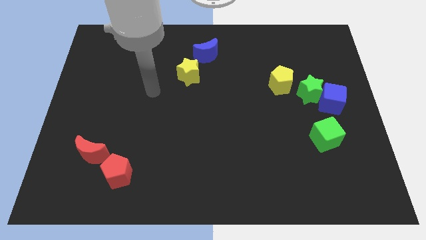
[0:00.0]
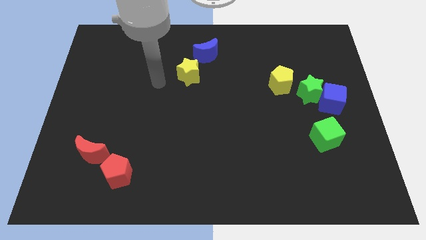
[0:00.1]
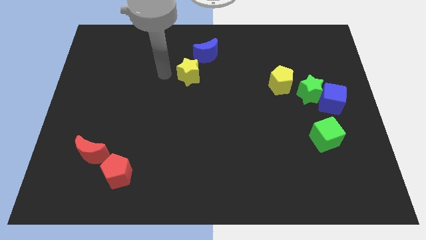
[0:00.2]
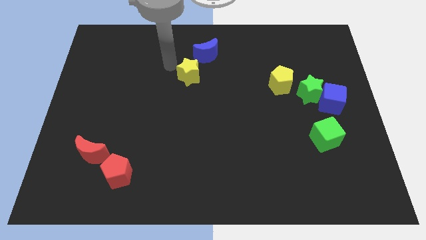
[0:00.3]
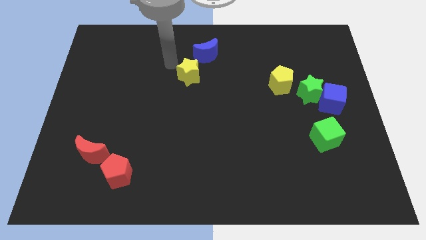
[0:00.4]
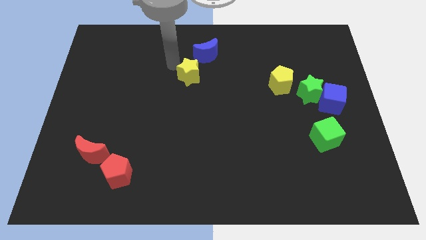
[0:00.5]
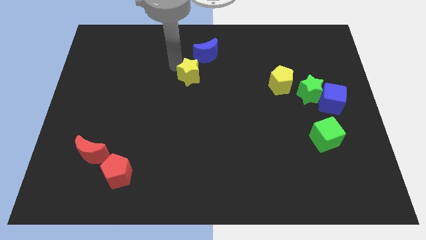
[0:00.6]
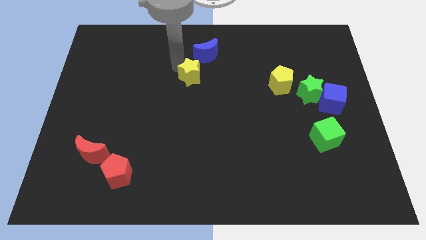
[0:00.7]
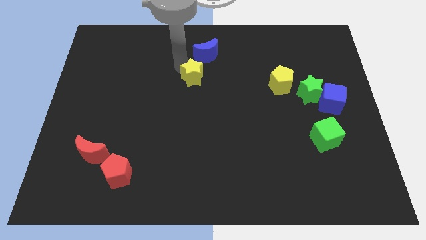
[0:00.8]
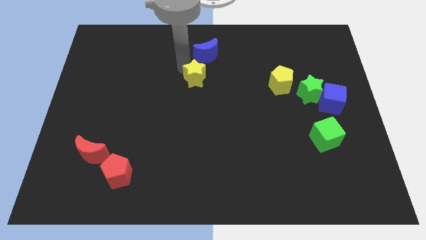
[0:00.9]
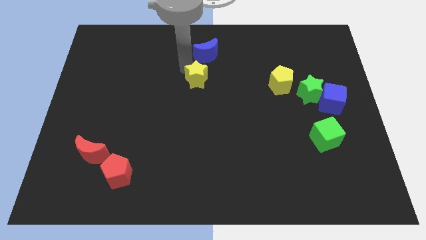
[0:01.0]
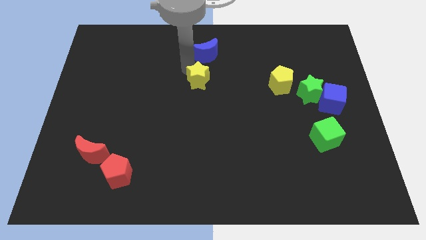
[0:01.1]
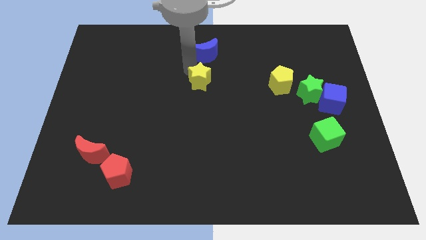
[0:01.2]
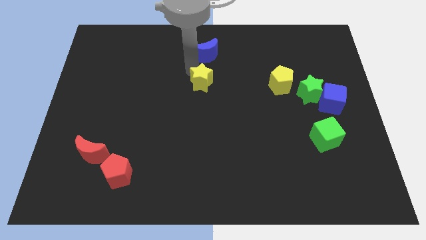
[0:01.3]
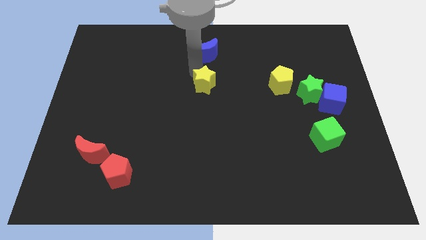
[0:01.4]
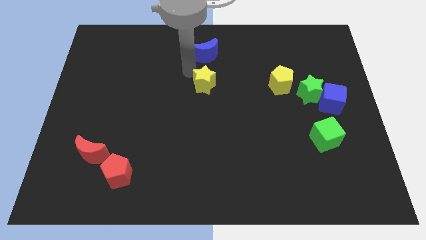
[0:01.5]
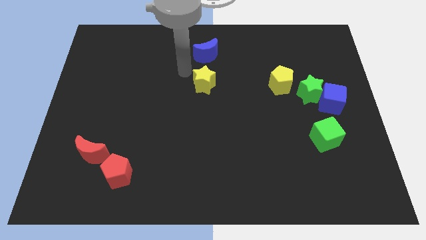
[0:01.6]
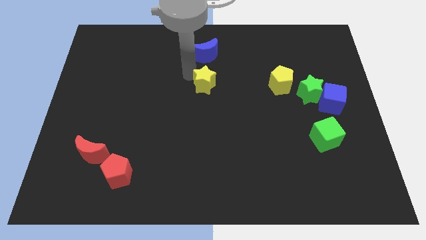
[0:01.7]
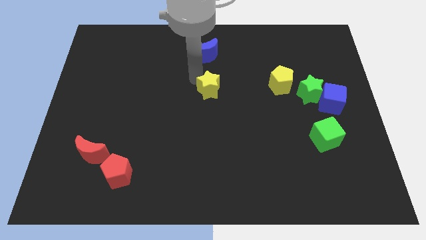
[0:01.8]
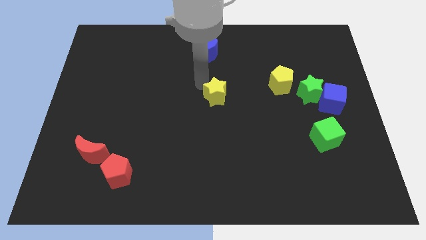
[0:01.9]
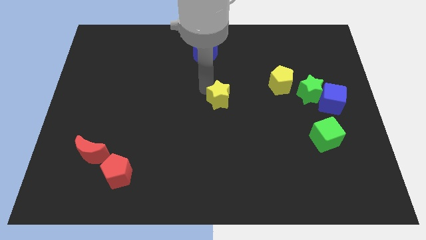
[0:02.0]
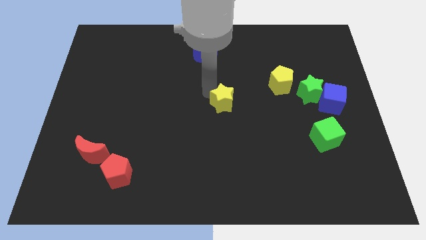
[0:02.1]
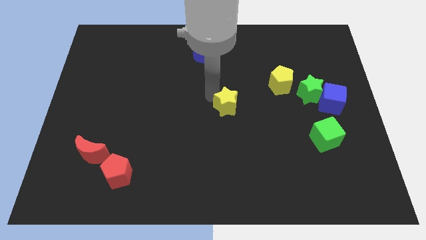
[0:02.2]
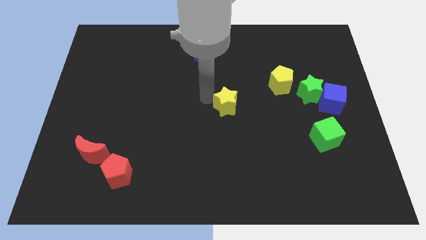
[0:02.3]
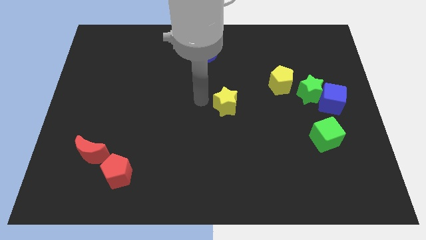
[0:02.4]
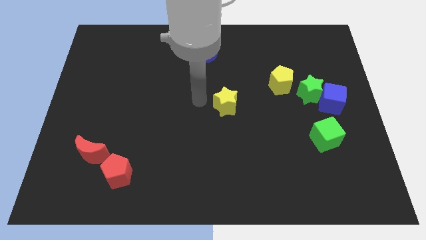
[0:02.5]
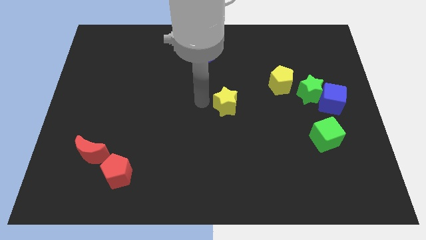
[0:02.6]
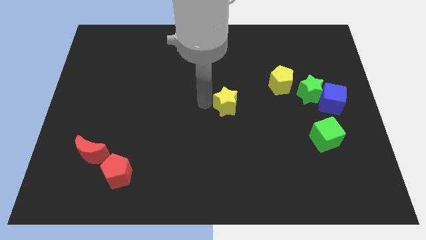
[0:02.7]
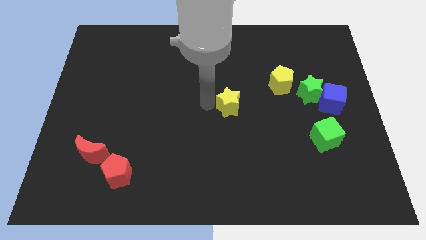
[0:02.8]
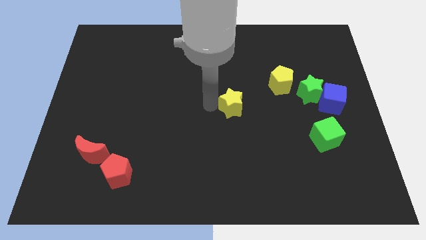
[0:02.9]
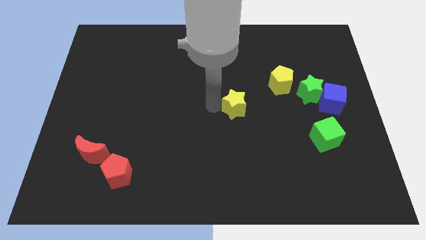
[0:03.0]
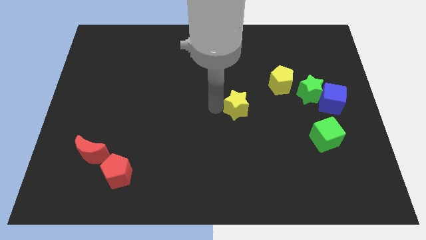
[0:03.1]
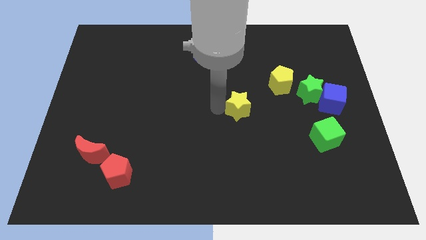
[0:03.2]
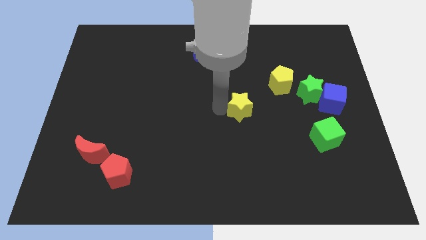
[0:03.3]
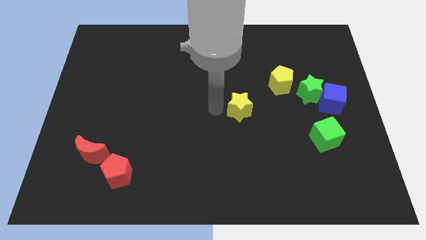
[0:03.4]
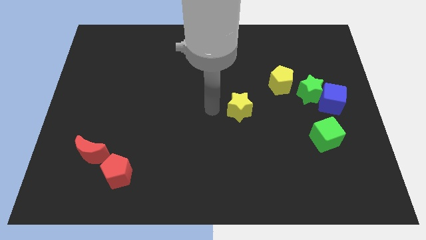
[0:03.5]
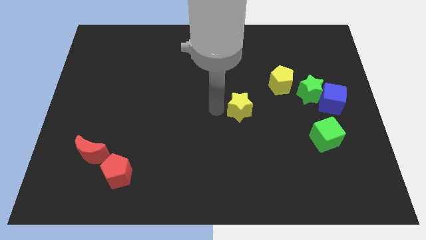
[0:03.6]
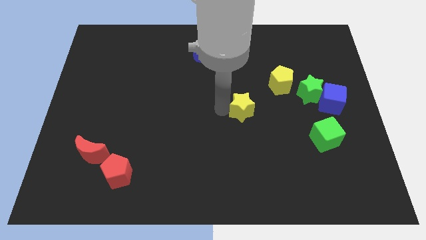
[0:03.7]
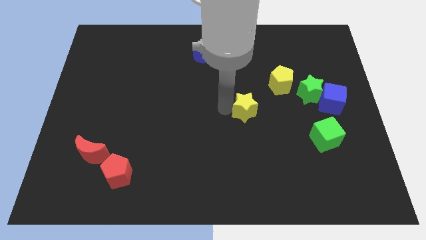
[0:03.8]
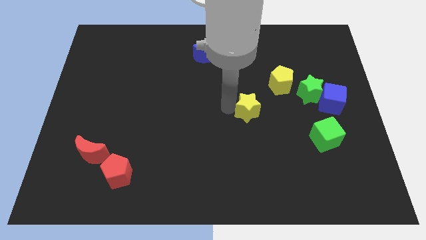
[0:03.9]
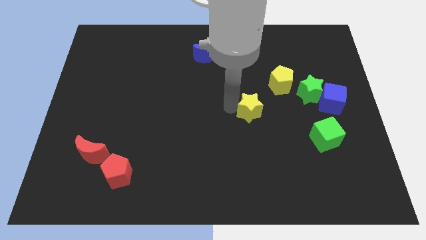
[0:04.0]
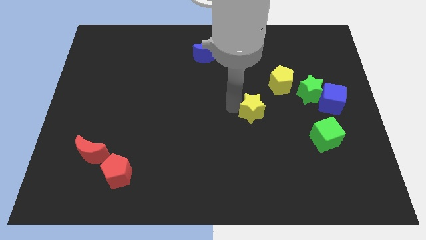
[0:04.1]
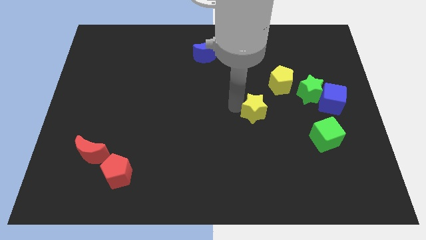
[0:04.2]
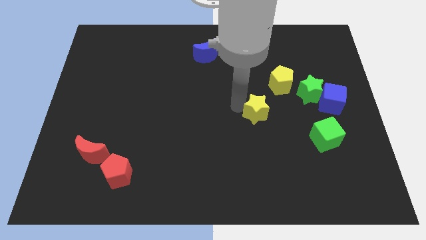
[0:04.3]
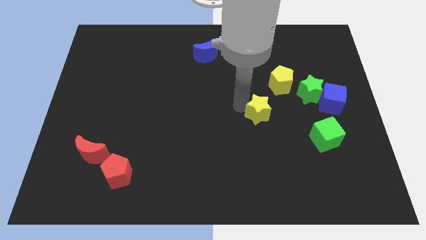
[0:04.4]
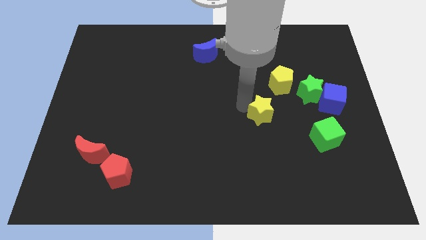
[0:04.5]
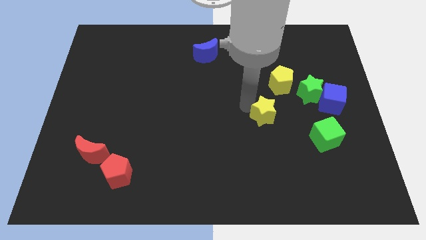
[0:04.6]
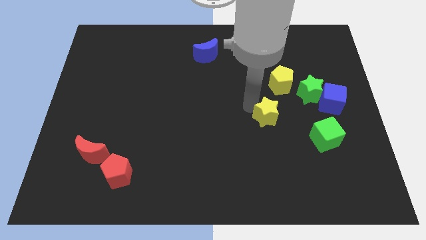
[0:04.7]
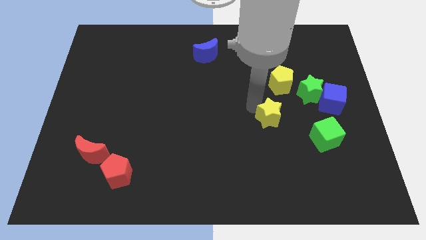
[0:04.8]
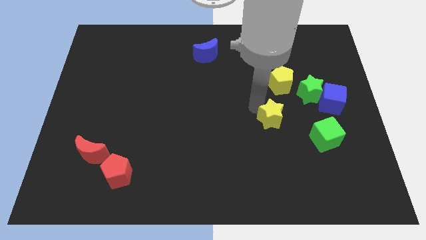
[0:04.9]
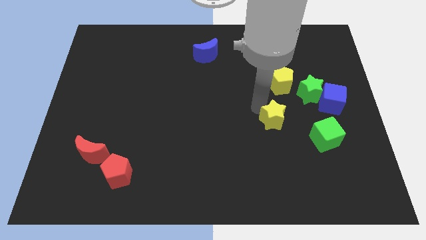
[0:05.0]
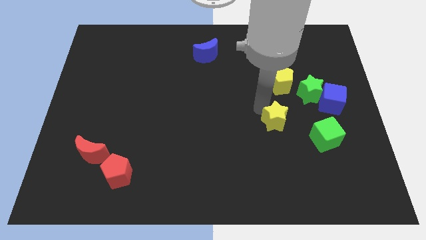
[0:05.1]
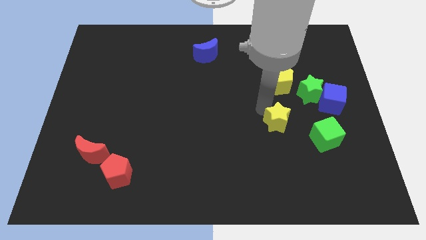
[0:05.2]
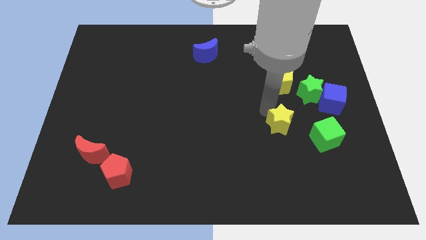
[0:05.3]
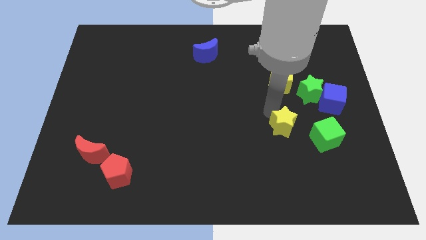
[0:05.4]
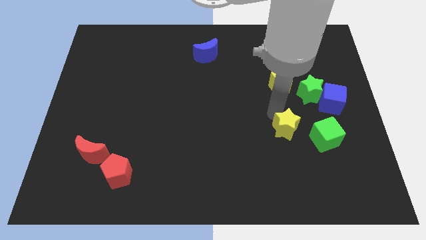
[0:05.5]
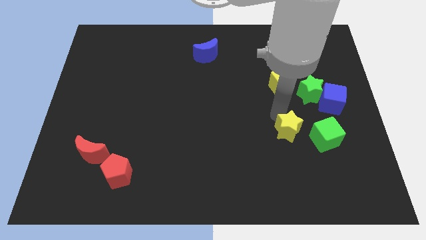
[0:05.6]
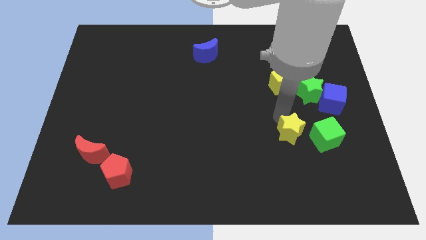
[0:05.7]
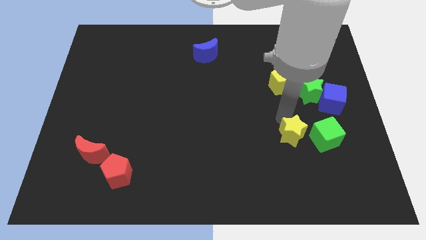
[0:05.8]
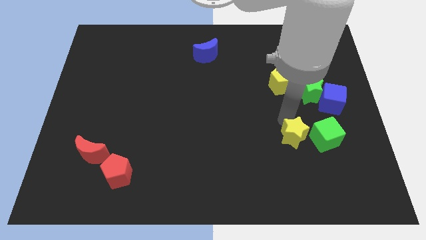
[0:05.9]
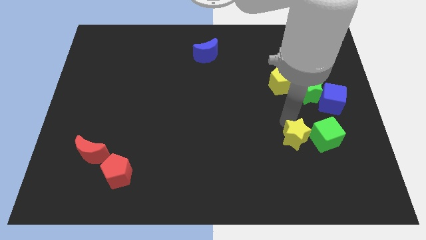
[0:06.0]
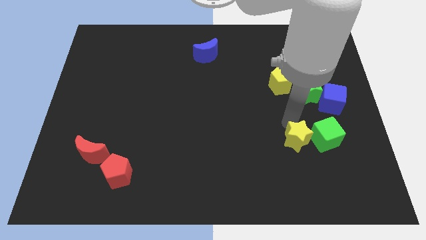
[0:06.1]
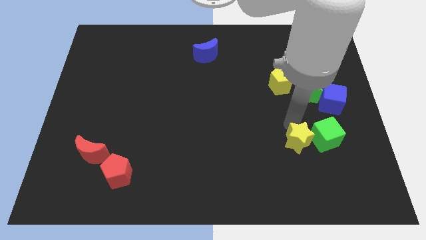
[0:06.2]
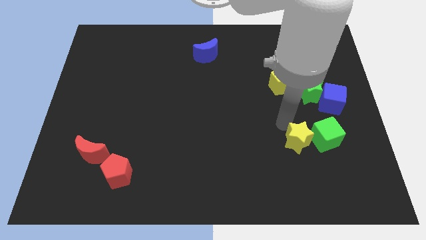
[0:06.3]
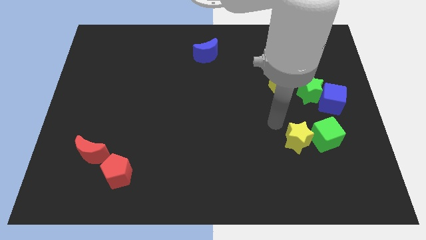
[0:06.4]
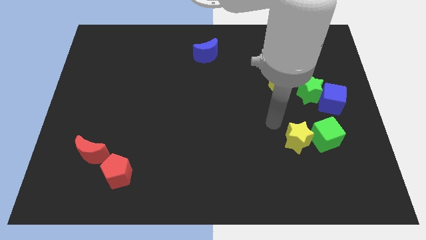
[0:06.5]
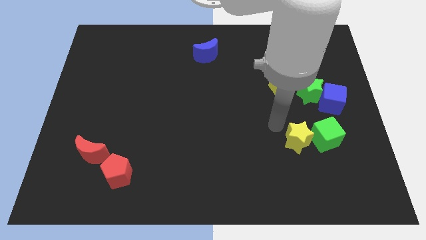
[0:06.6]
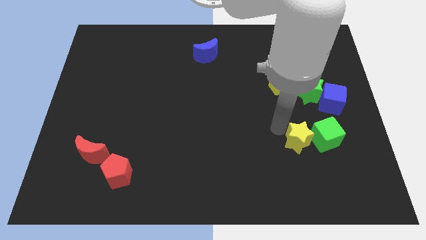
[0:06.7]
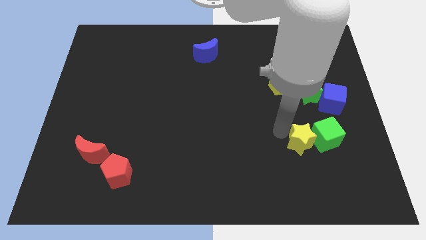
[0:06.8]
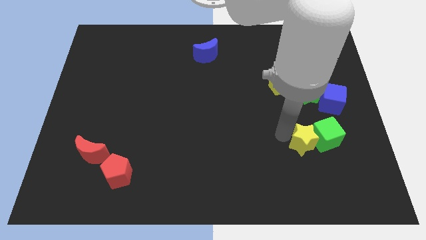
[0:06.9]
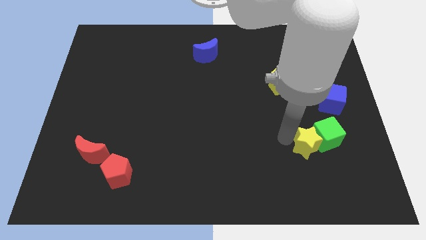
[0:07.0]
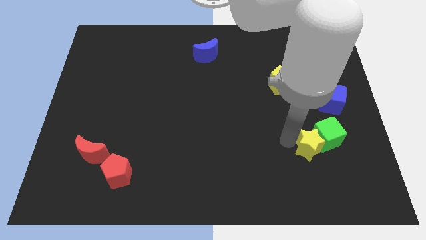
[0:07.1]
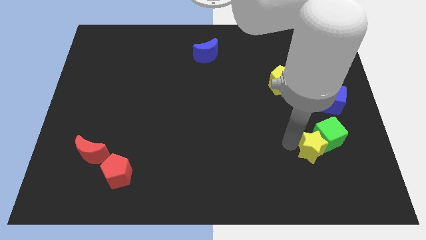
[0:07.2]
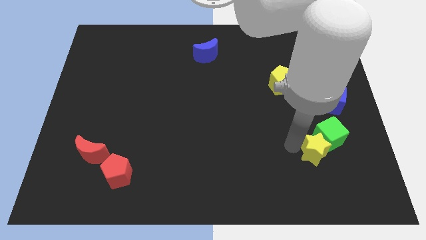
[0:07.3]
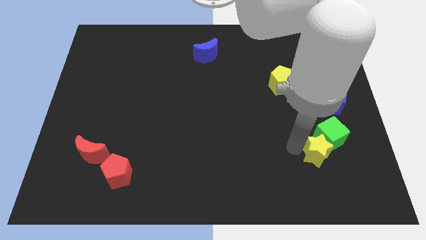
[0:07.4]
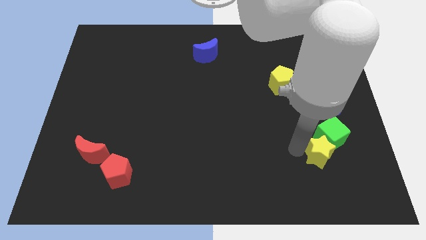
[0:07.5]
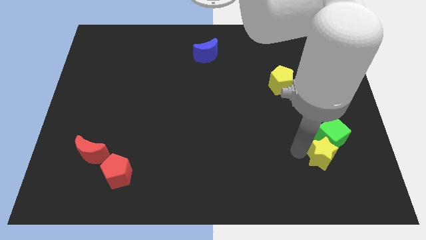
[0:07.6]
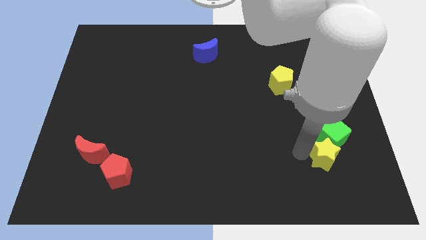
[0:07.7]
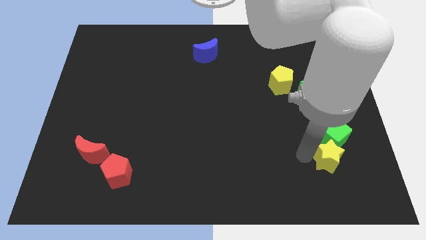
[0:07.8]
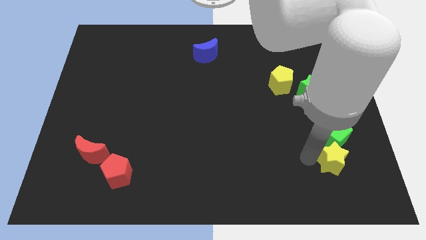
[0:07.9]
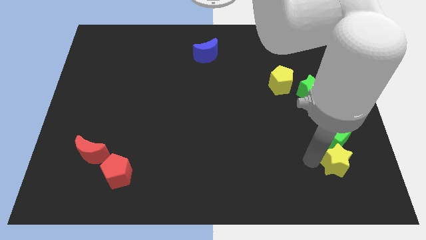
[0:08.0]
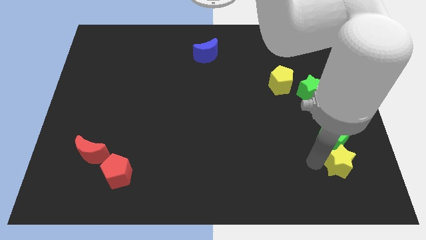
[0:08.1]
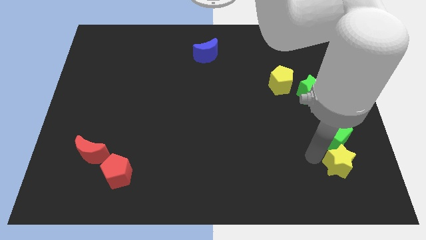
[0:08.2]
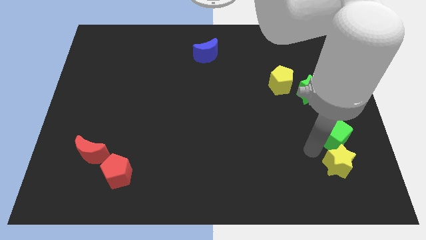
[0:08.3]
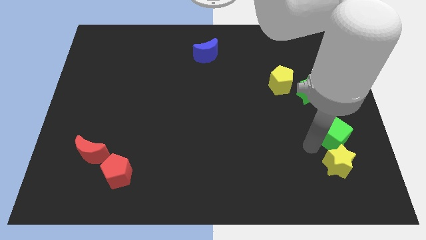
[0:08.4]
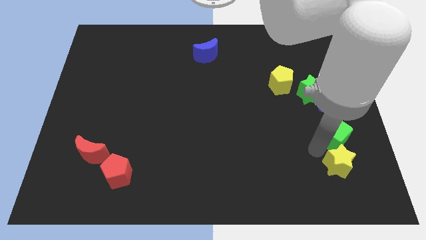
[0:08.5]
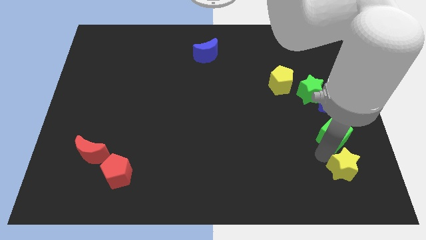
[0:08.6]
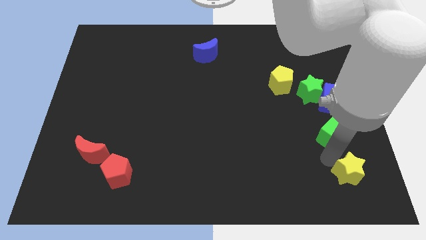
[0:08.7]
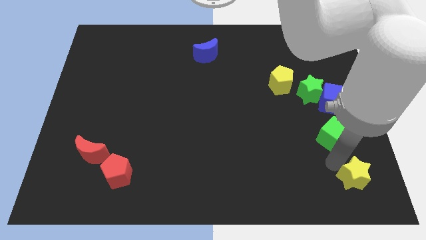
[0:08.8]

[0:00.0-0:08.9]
put the yellow star to the lower right corner
